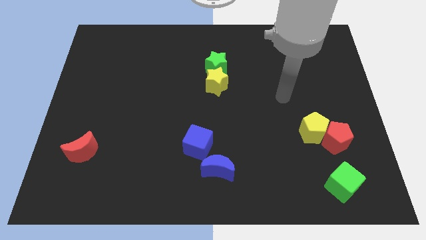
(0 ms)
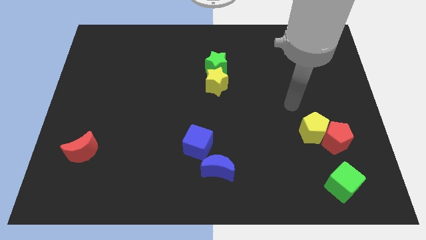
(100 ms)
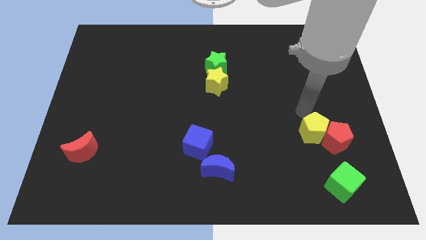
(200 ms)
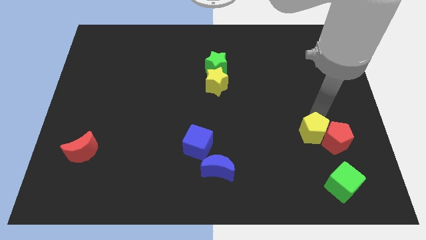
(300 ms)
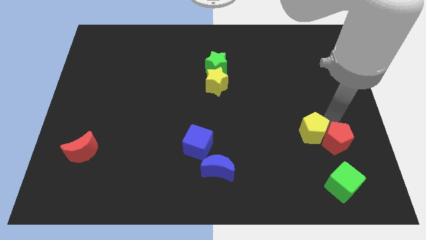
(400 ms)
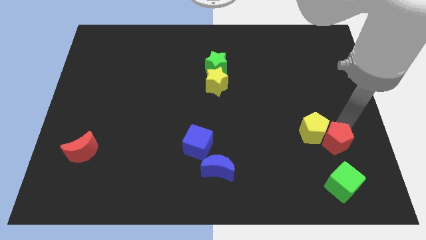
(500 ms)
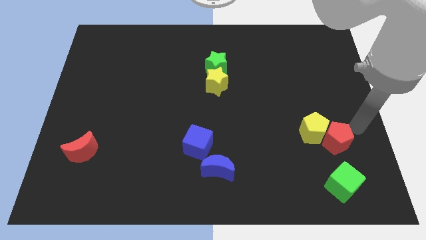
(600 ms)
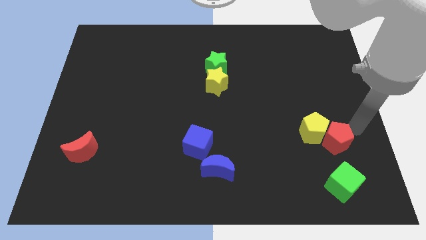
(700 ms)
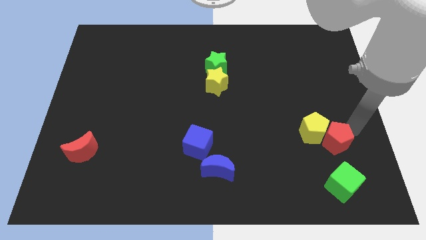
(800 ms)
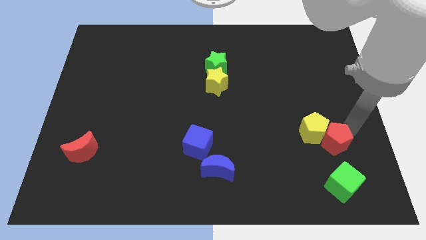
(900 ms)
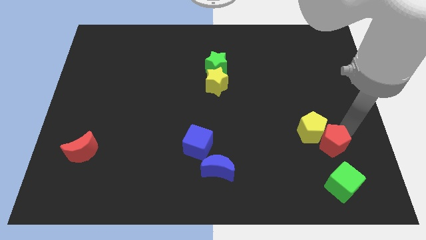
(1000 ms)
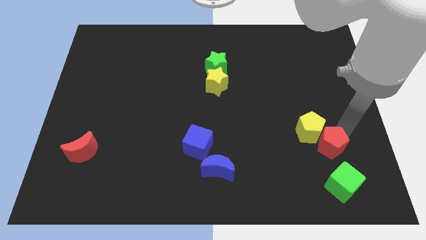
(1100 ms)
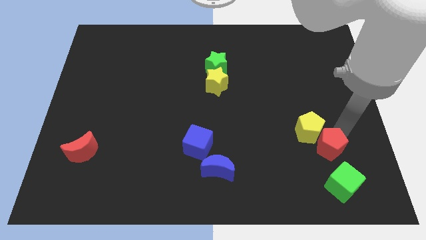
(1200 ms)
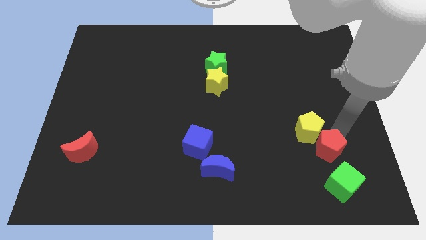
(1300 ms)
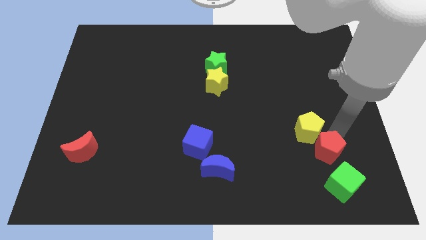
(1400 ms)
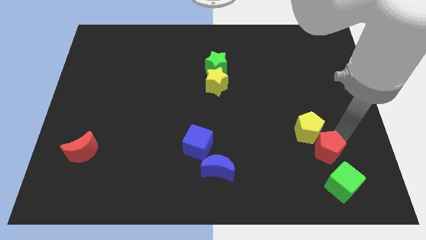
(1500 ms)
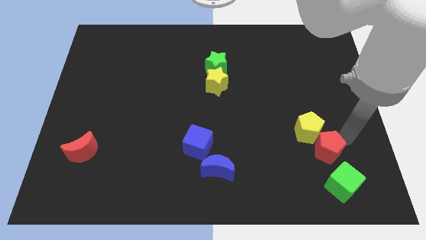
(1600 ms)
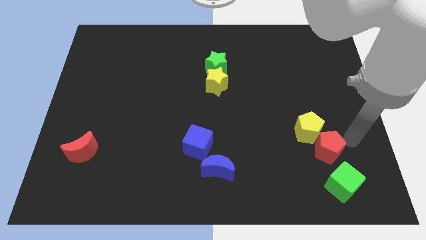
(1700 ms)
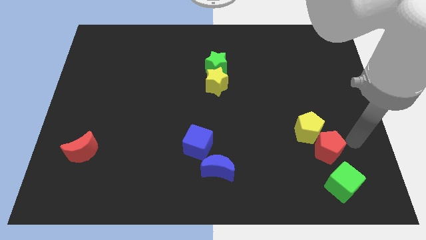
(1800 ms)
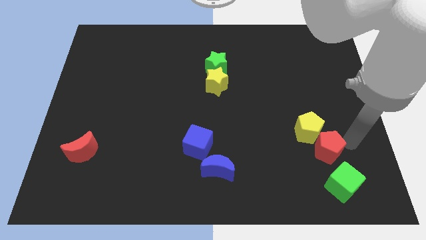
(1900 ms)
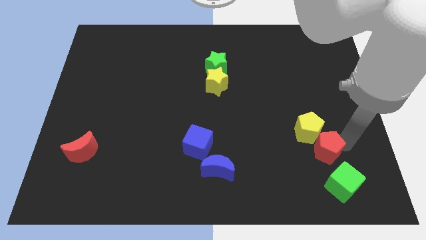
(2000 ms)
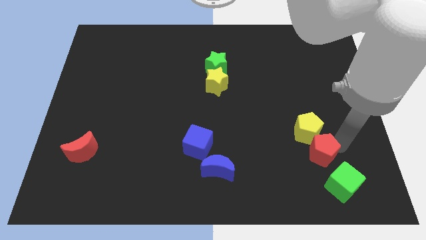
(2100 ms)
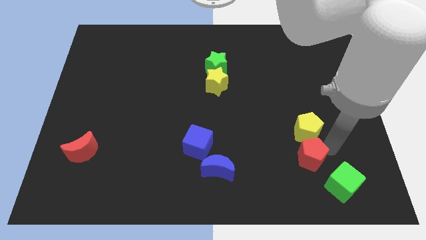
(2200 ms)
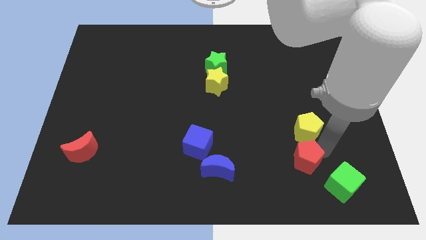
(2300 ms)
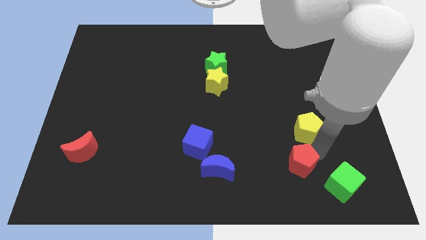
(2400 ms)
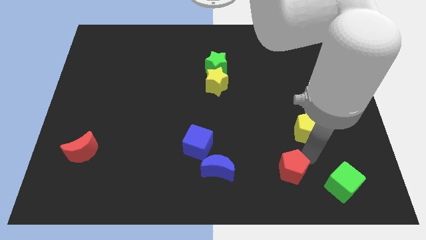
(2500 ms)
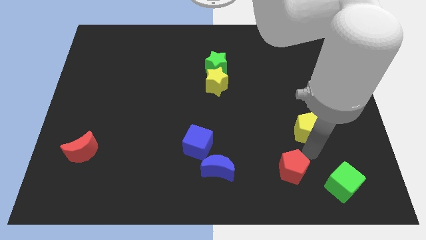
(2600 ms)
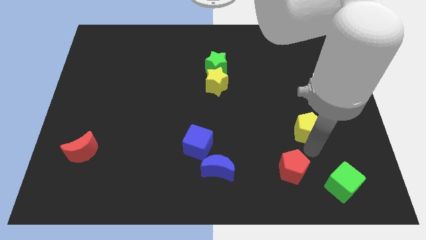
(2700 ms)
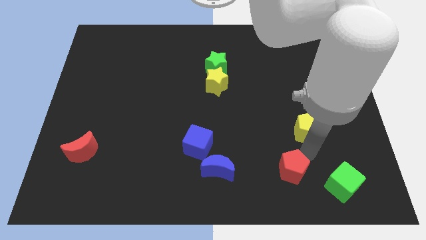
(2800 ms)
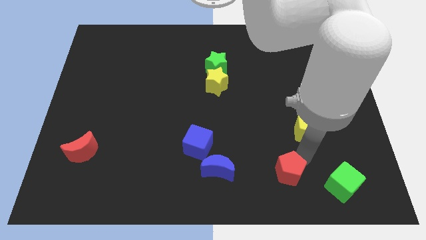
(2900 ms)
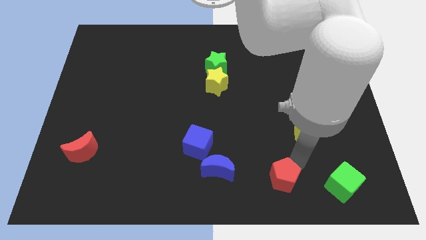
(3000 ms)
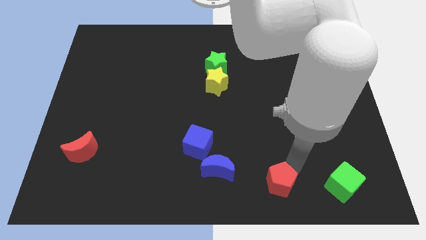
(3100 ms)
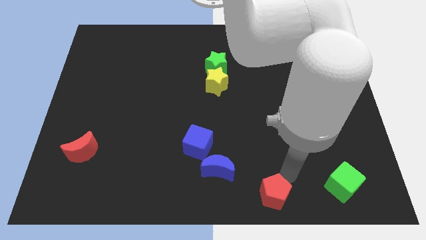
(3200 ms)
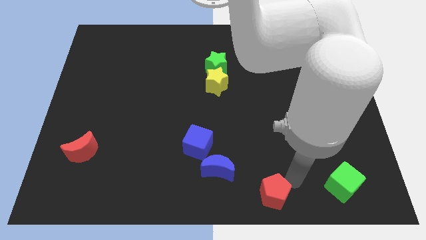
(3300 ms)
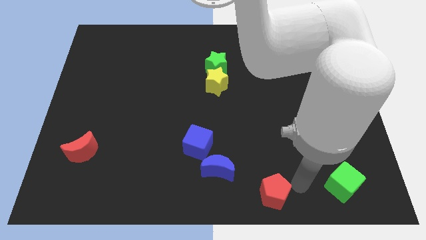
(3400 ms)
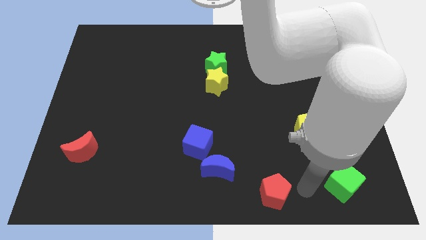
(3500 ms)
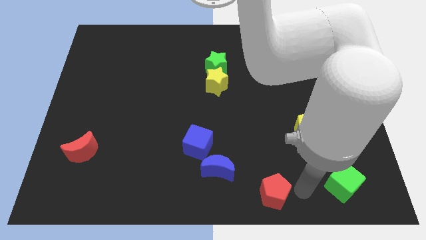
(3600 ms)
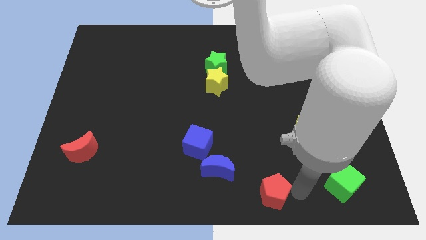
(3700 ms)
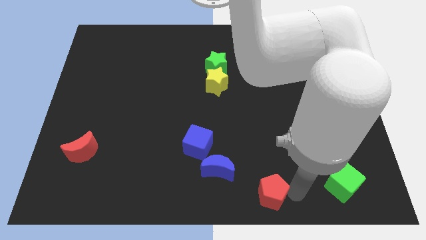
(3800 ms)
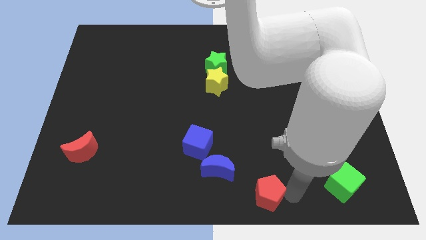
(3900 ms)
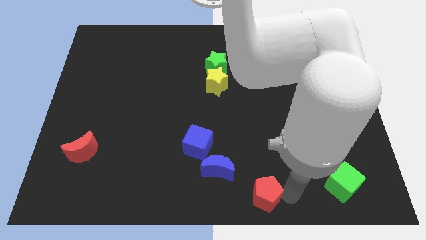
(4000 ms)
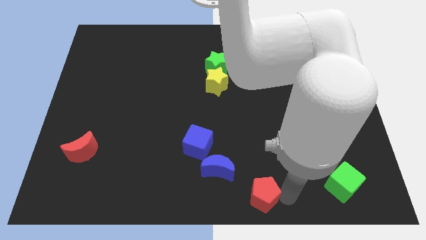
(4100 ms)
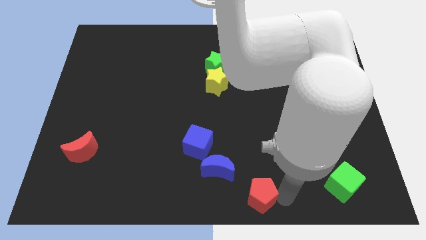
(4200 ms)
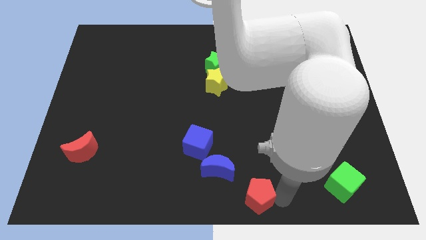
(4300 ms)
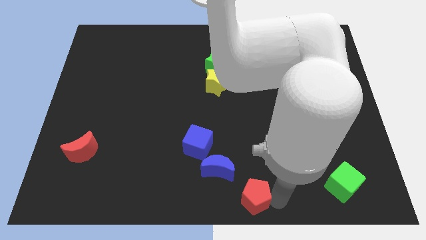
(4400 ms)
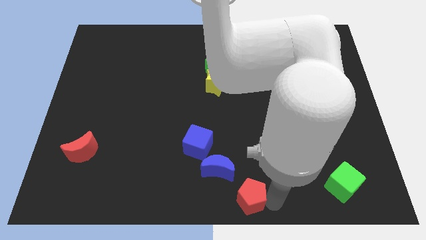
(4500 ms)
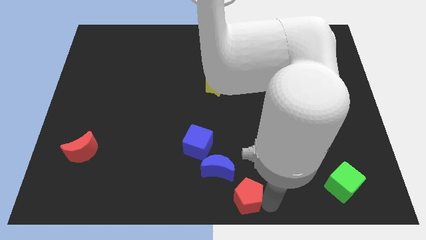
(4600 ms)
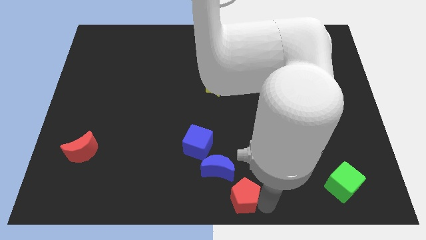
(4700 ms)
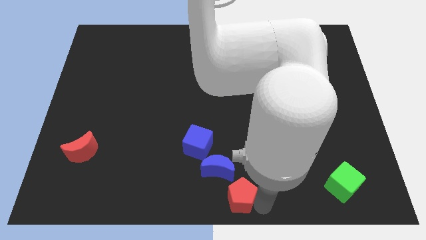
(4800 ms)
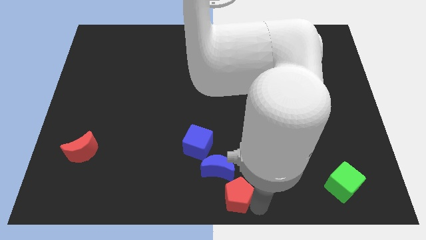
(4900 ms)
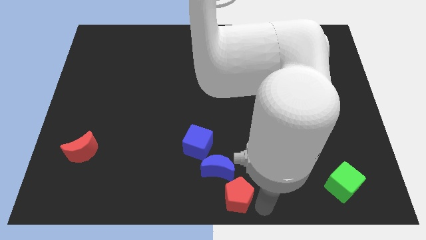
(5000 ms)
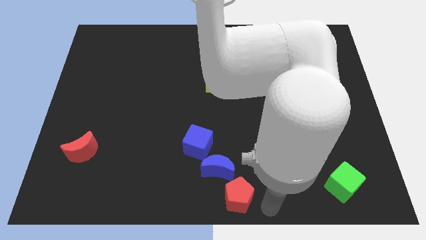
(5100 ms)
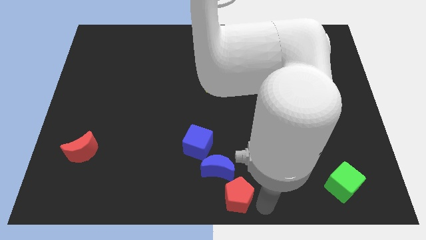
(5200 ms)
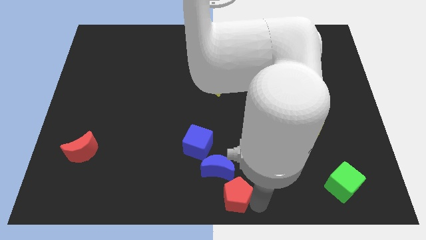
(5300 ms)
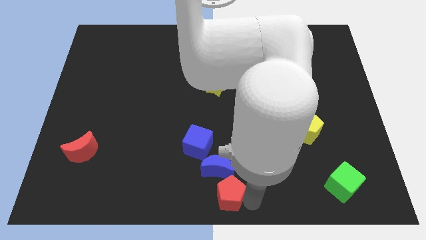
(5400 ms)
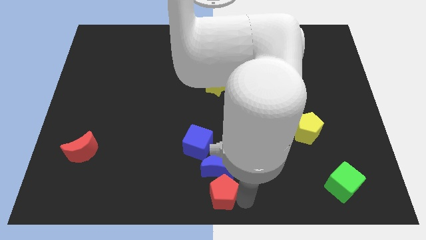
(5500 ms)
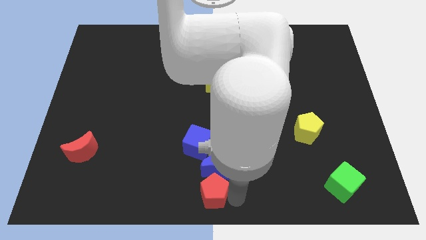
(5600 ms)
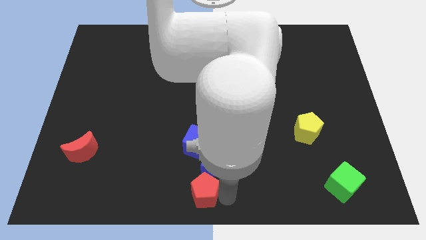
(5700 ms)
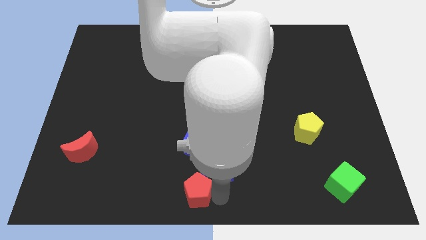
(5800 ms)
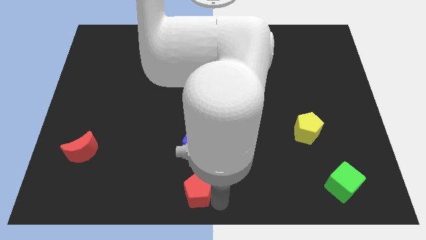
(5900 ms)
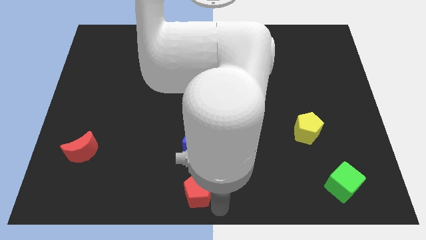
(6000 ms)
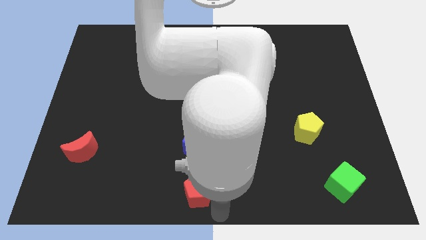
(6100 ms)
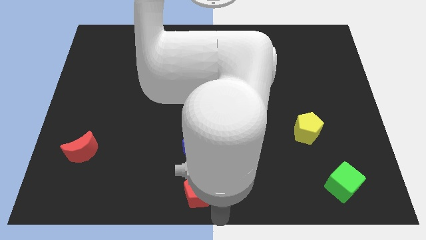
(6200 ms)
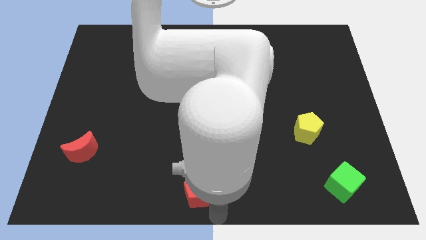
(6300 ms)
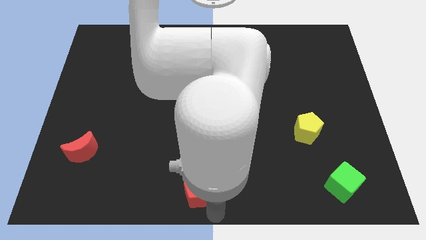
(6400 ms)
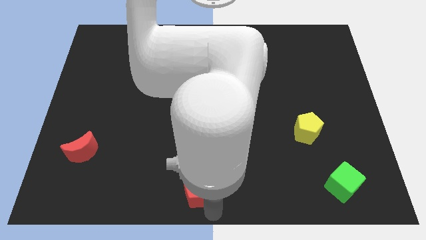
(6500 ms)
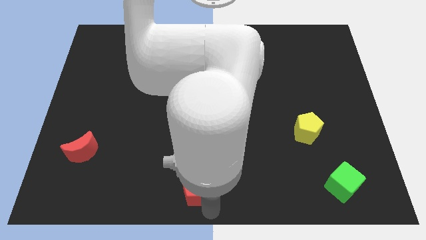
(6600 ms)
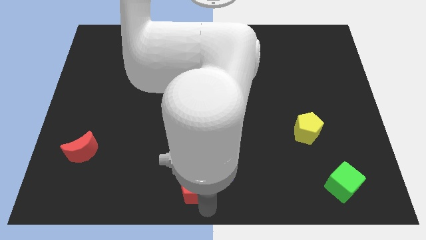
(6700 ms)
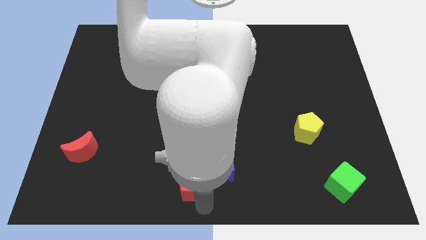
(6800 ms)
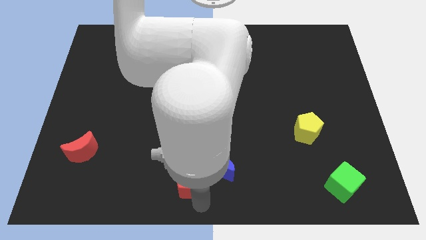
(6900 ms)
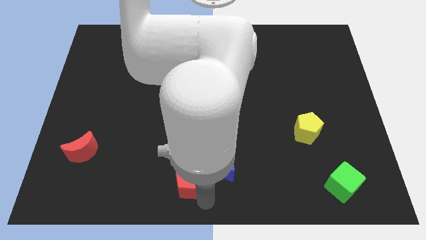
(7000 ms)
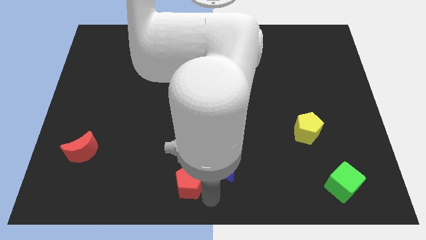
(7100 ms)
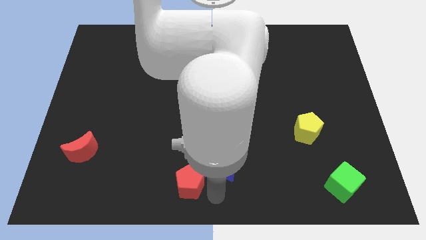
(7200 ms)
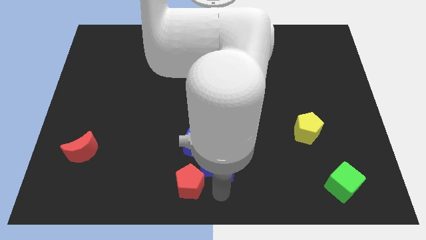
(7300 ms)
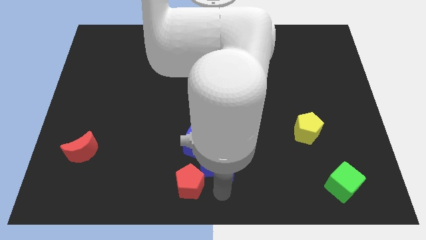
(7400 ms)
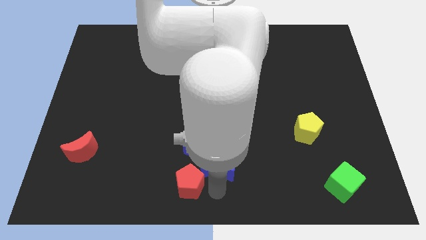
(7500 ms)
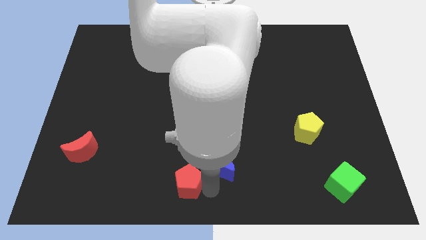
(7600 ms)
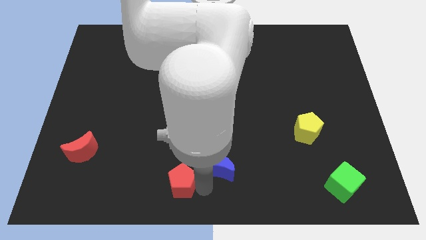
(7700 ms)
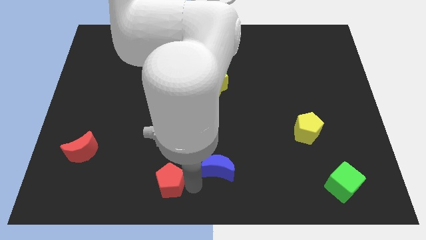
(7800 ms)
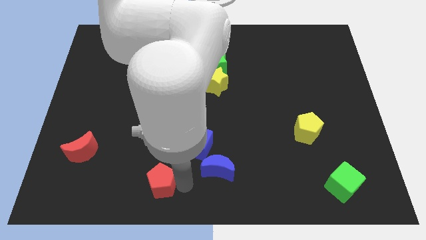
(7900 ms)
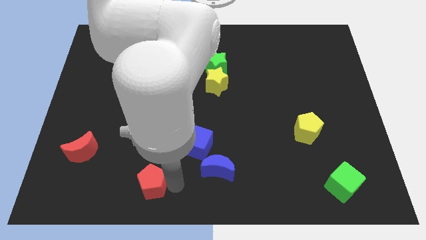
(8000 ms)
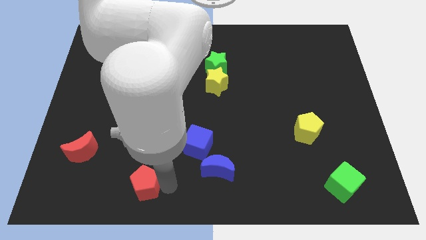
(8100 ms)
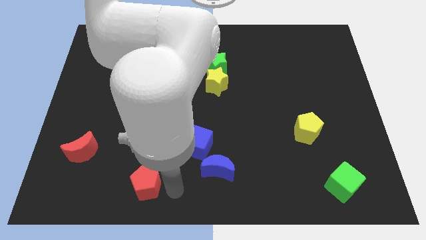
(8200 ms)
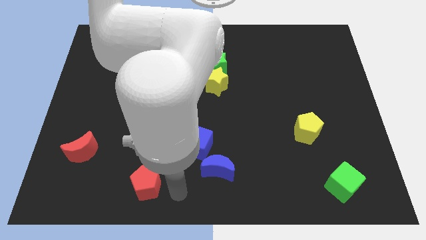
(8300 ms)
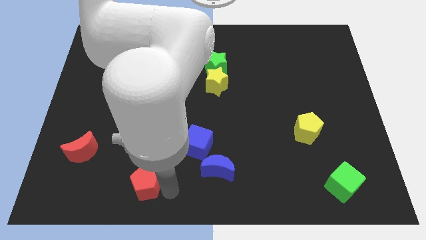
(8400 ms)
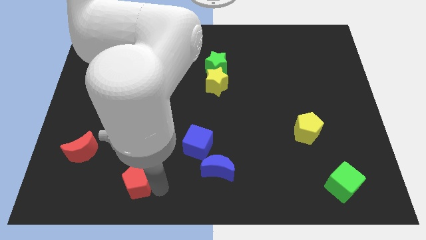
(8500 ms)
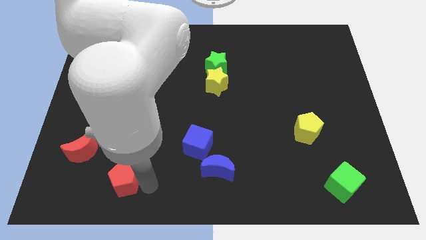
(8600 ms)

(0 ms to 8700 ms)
put the red pentagon diagonally down and to the right of the red moon
